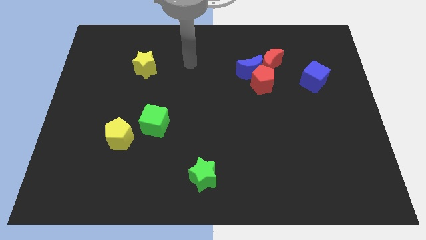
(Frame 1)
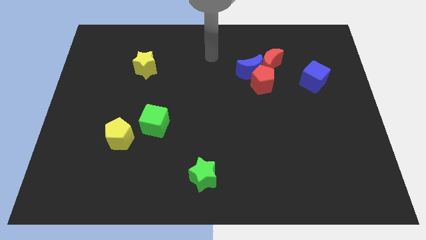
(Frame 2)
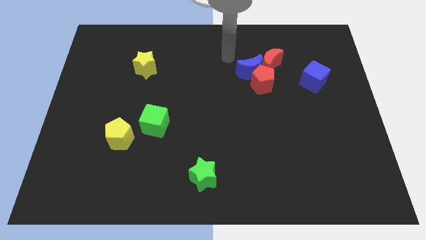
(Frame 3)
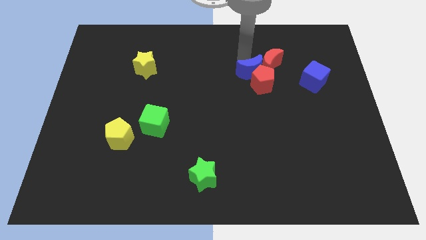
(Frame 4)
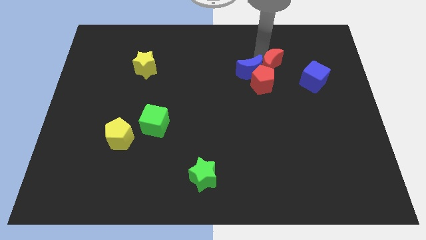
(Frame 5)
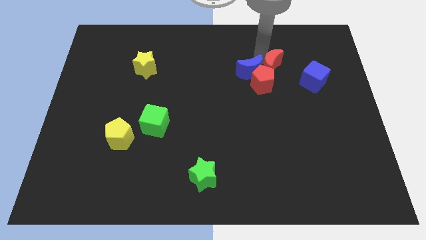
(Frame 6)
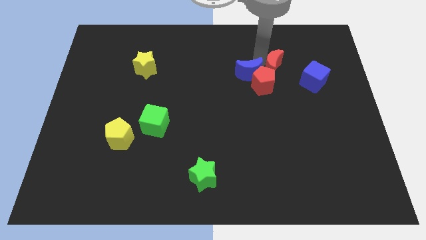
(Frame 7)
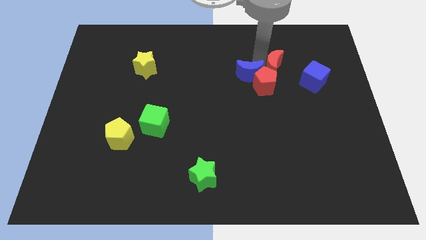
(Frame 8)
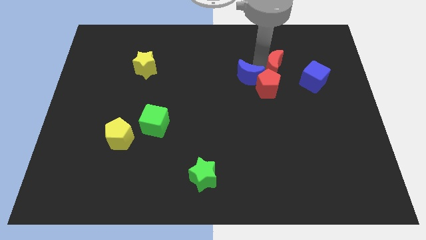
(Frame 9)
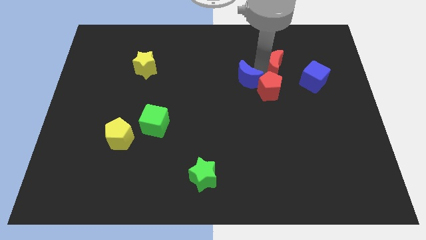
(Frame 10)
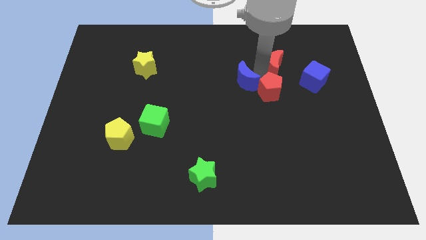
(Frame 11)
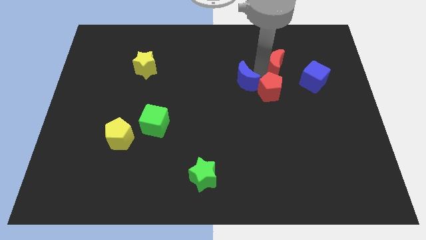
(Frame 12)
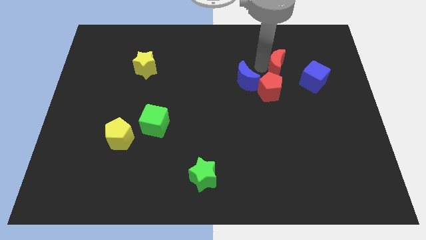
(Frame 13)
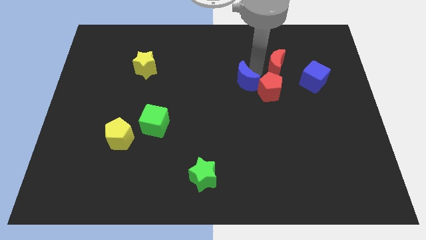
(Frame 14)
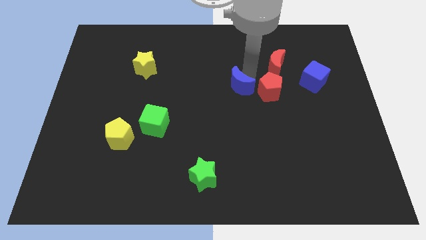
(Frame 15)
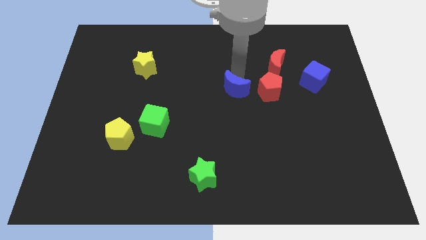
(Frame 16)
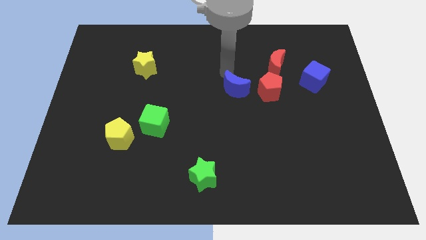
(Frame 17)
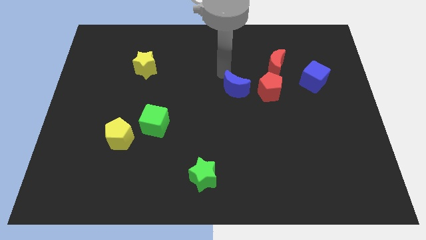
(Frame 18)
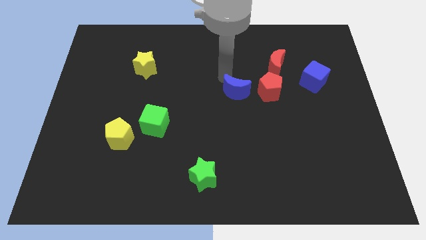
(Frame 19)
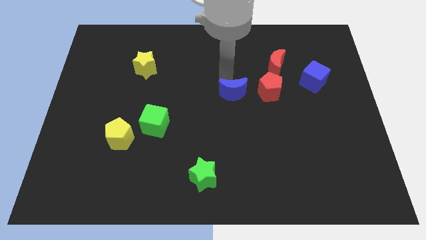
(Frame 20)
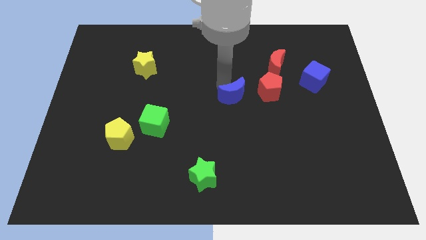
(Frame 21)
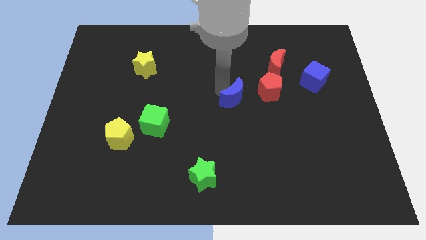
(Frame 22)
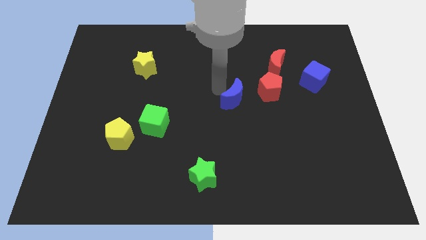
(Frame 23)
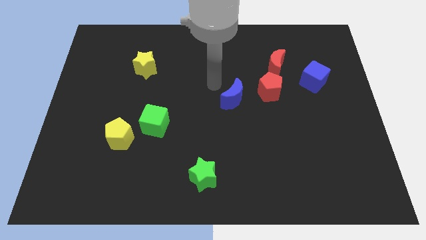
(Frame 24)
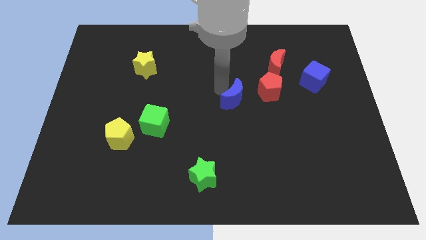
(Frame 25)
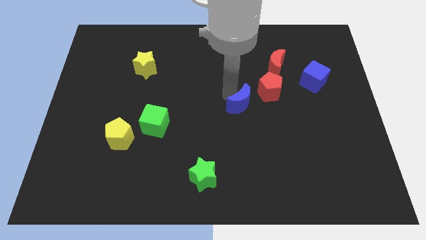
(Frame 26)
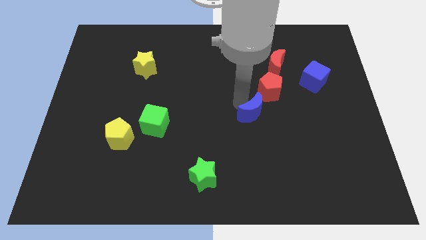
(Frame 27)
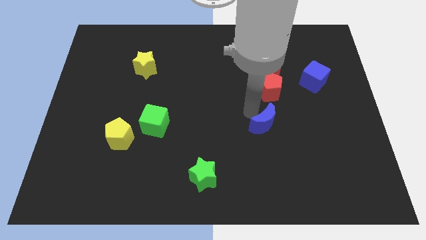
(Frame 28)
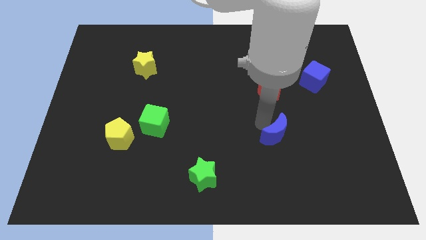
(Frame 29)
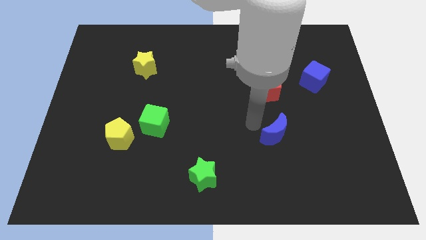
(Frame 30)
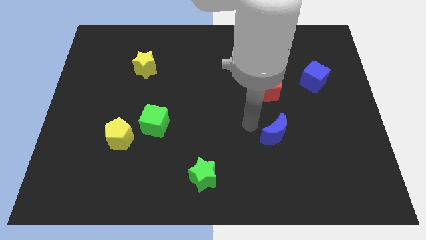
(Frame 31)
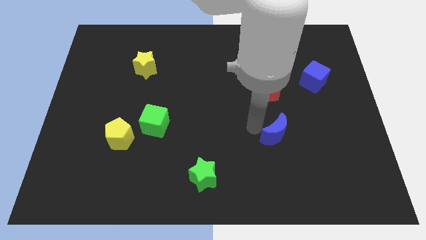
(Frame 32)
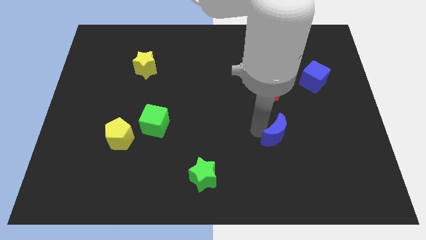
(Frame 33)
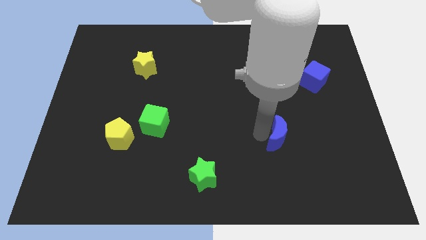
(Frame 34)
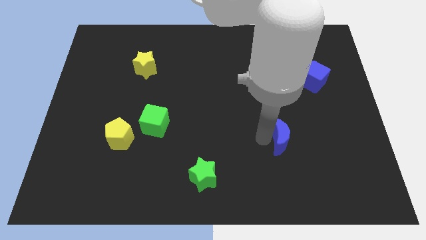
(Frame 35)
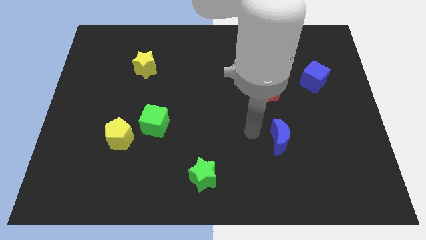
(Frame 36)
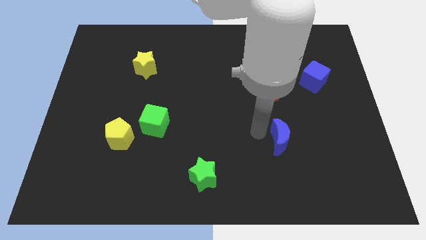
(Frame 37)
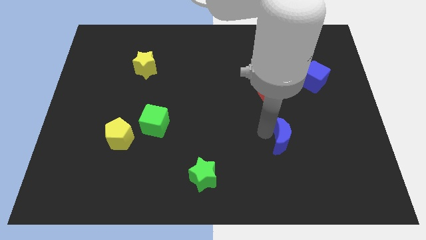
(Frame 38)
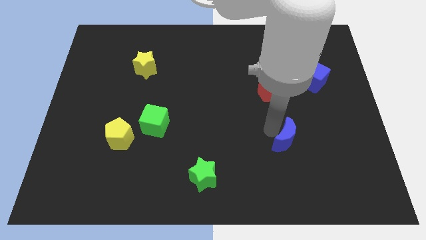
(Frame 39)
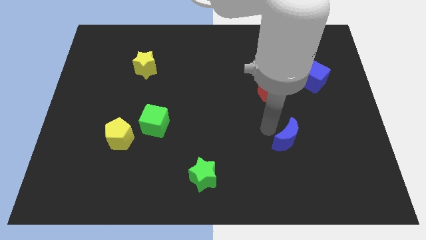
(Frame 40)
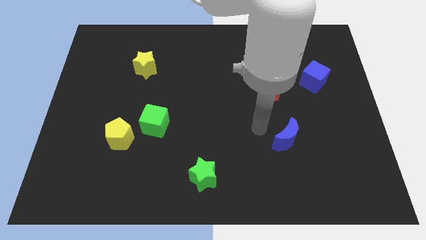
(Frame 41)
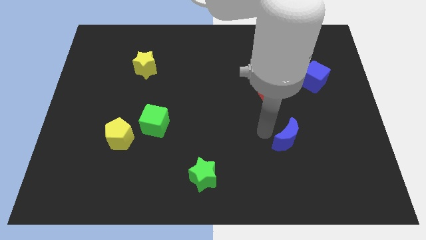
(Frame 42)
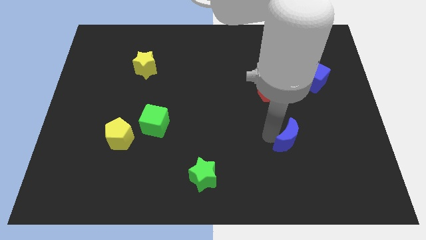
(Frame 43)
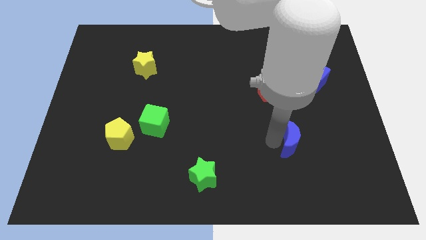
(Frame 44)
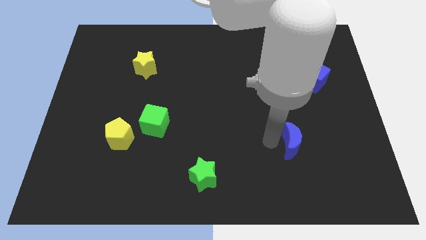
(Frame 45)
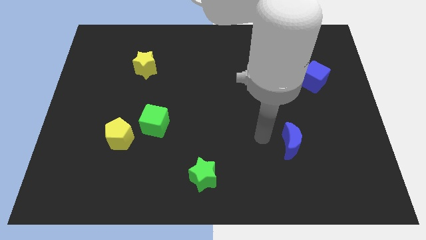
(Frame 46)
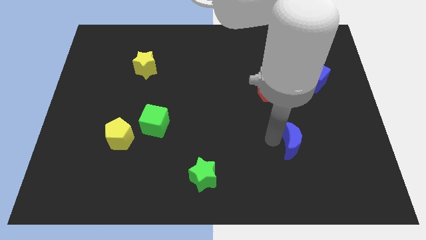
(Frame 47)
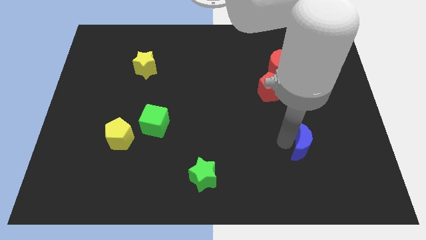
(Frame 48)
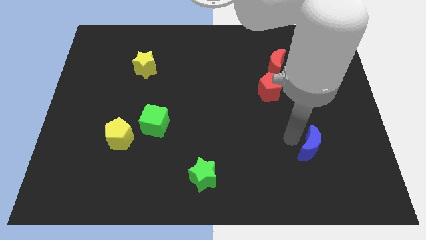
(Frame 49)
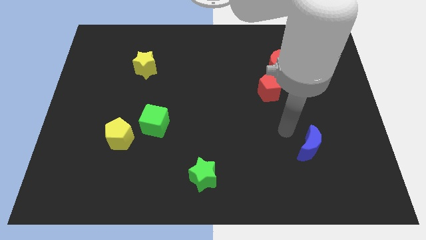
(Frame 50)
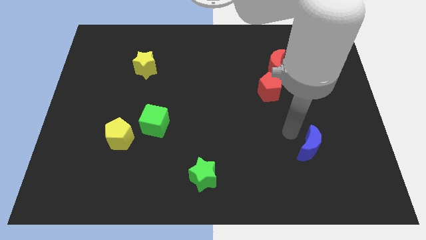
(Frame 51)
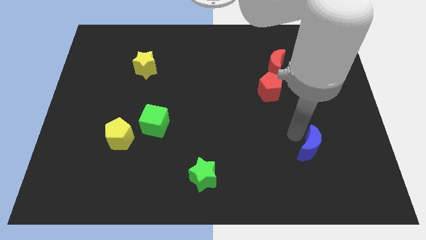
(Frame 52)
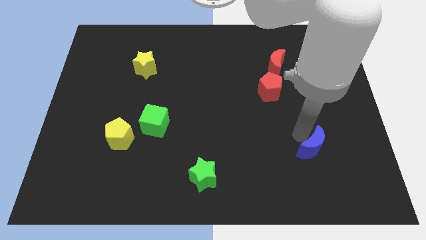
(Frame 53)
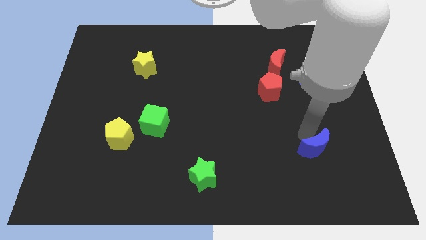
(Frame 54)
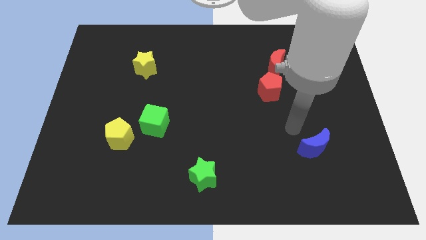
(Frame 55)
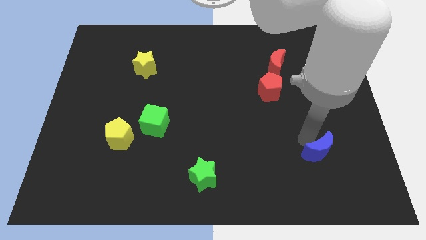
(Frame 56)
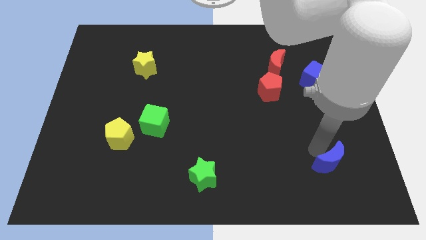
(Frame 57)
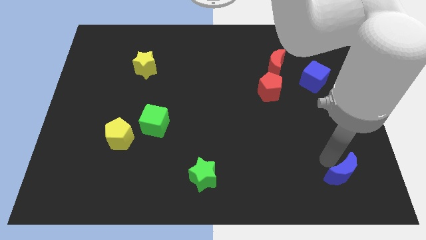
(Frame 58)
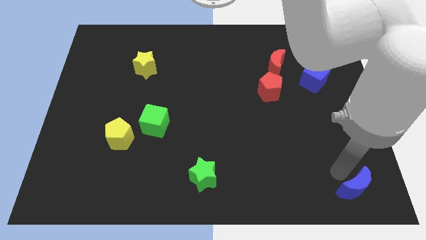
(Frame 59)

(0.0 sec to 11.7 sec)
move the blue moon to the lower right corner
